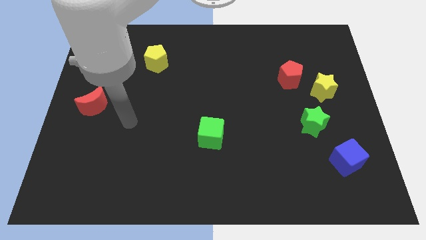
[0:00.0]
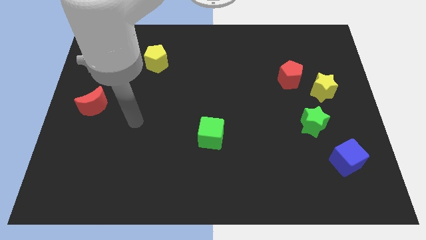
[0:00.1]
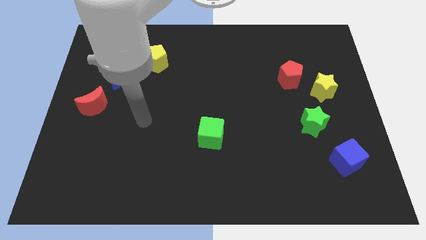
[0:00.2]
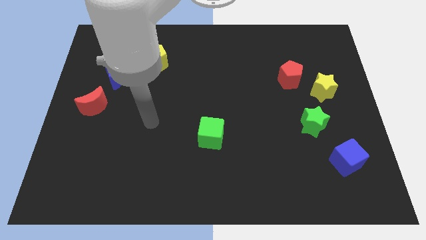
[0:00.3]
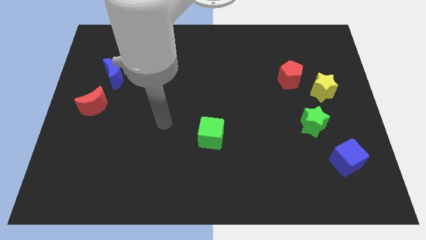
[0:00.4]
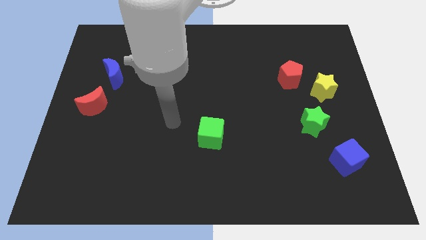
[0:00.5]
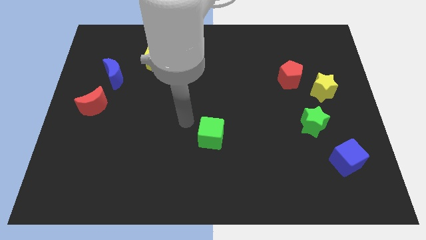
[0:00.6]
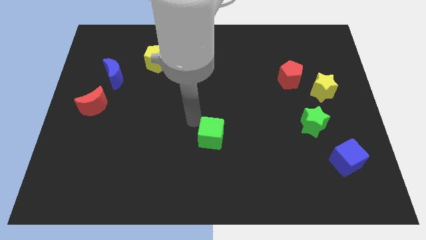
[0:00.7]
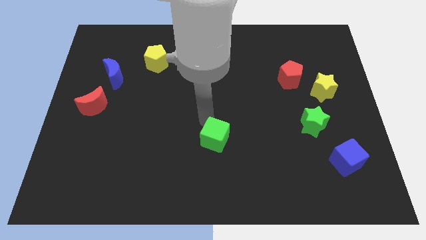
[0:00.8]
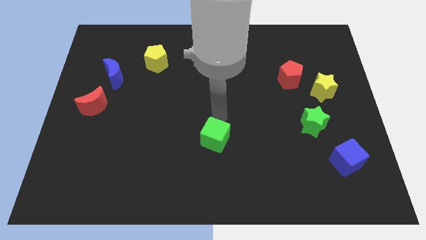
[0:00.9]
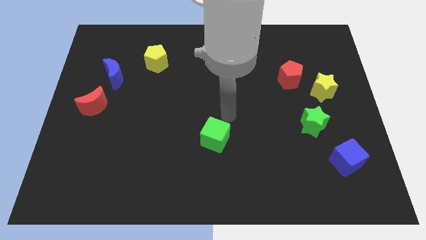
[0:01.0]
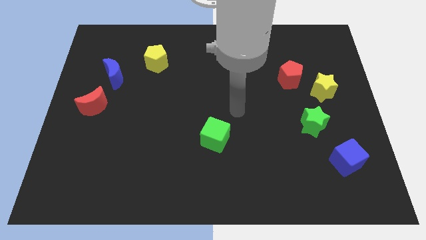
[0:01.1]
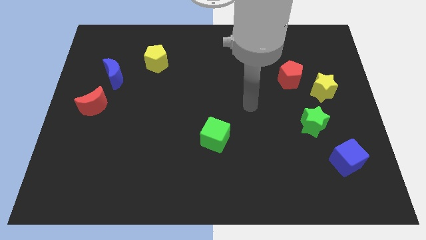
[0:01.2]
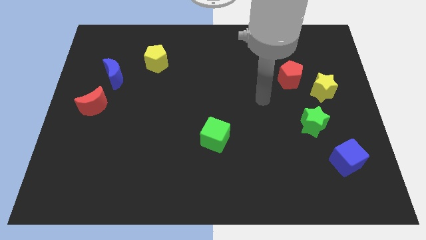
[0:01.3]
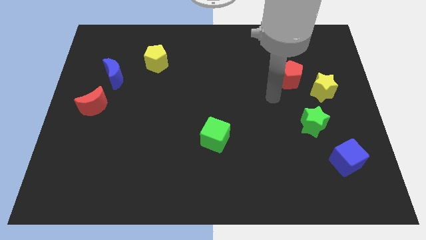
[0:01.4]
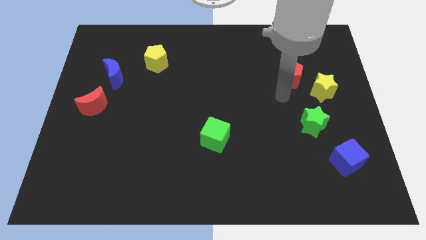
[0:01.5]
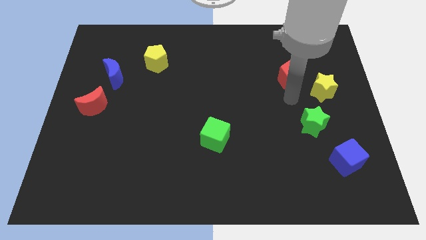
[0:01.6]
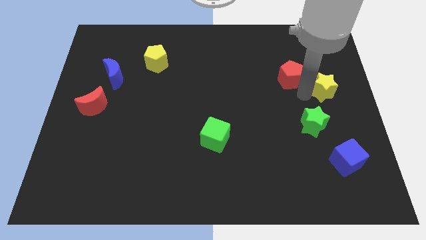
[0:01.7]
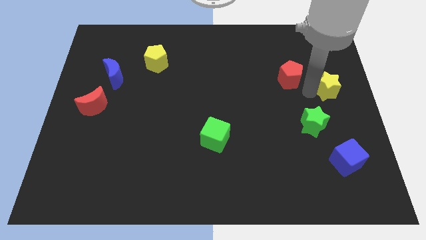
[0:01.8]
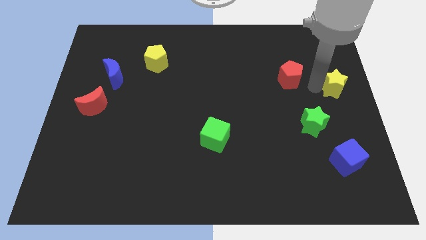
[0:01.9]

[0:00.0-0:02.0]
separate the red pentagon from the yellow star

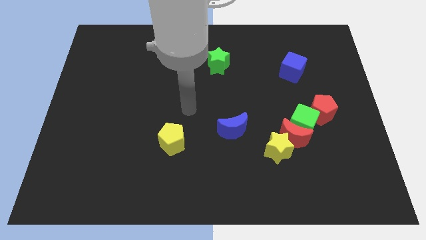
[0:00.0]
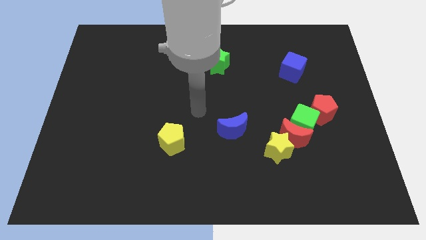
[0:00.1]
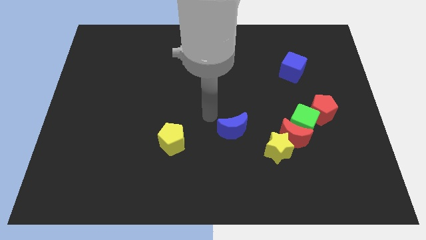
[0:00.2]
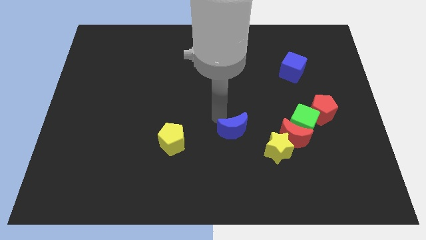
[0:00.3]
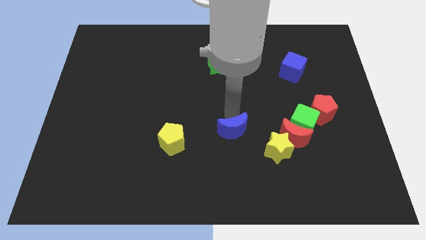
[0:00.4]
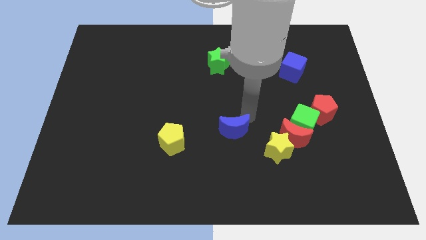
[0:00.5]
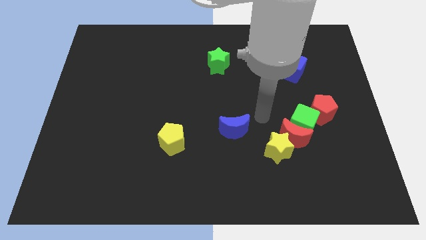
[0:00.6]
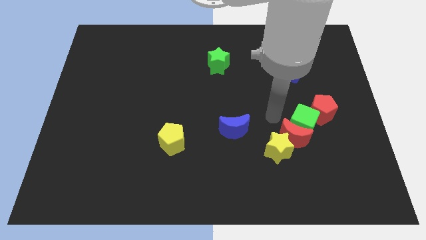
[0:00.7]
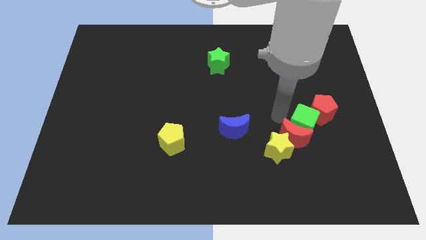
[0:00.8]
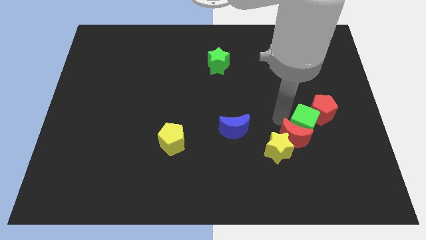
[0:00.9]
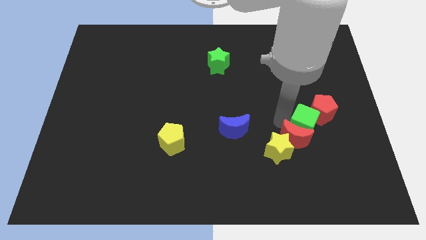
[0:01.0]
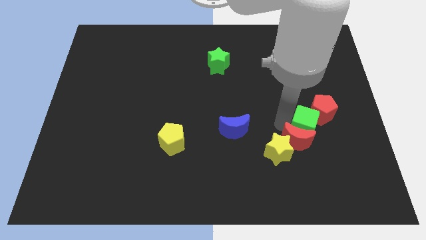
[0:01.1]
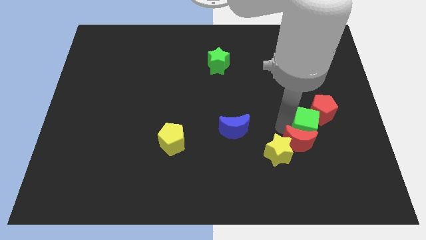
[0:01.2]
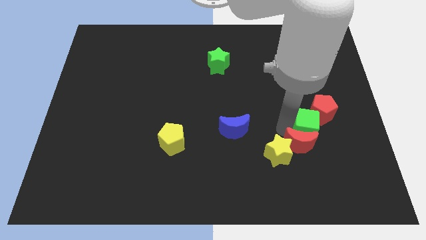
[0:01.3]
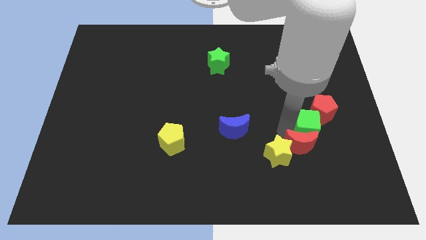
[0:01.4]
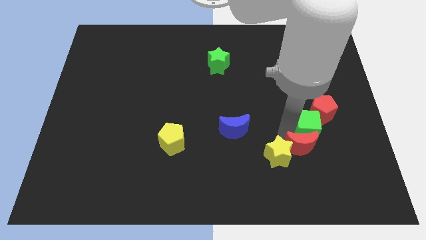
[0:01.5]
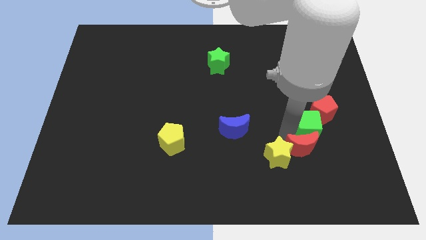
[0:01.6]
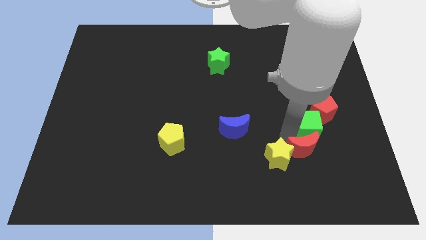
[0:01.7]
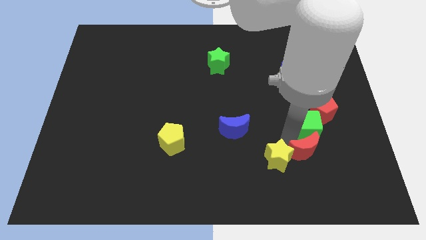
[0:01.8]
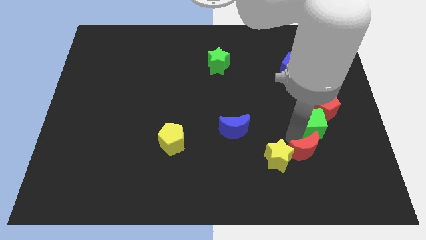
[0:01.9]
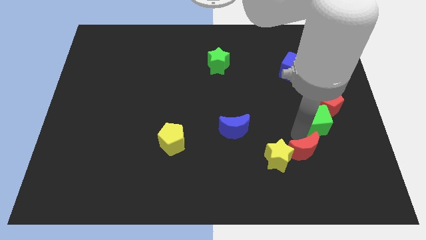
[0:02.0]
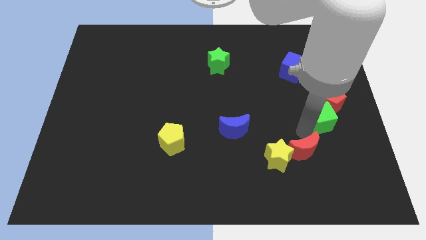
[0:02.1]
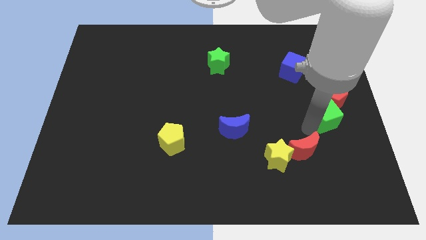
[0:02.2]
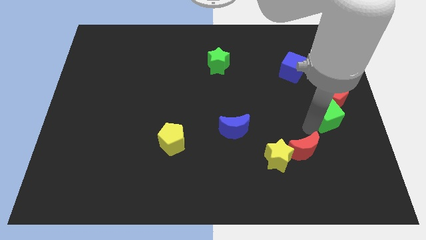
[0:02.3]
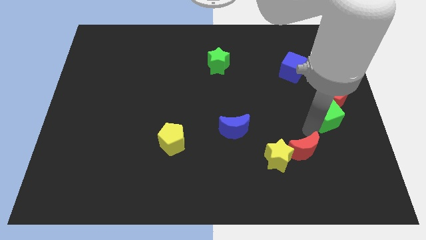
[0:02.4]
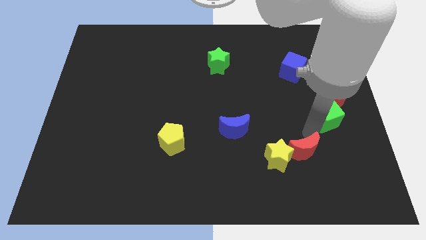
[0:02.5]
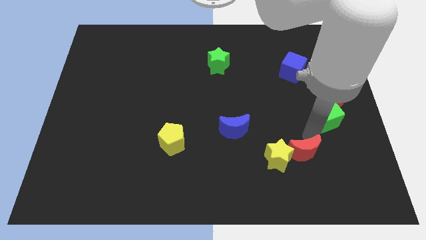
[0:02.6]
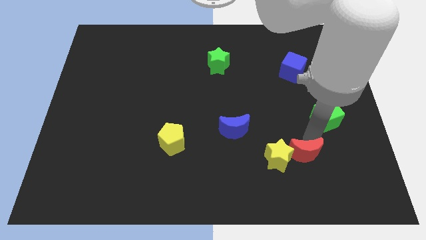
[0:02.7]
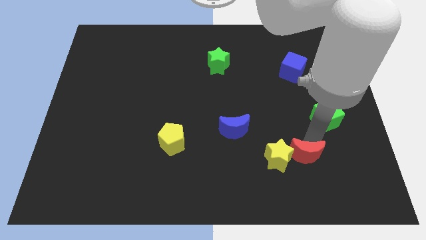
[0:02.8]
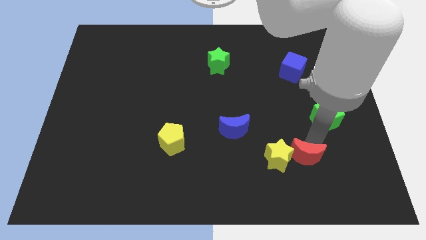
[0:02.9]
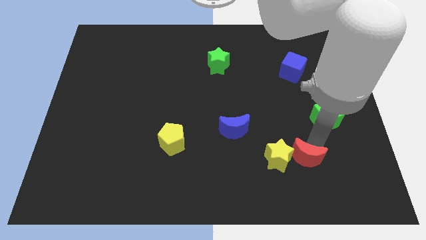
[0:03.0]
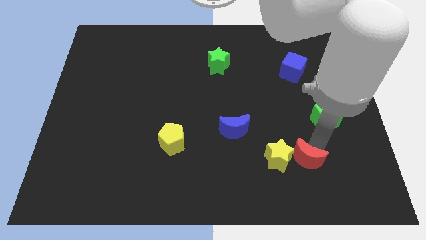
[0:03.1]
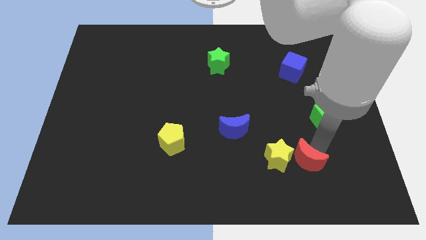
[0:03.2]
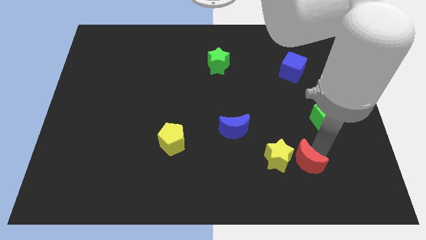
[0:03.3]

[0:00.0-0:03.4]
move the red moon away from the group of blocks

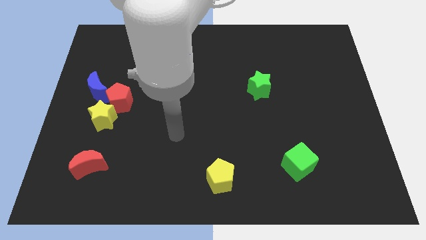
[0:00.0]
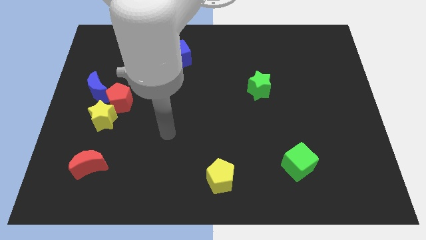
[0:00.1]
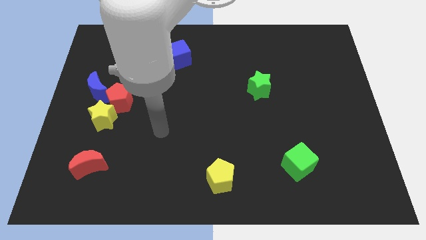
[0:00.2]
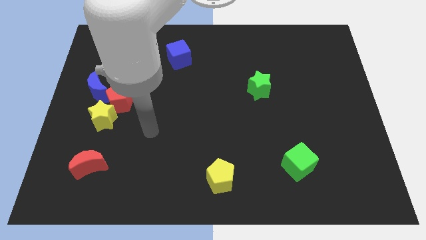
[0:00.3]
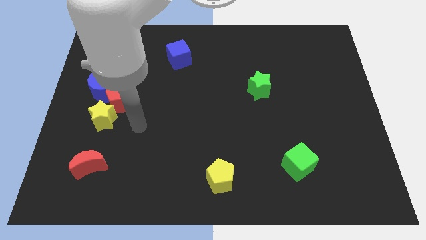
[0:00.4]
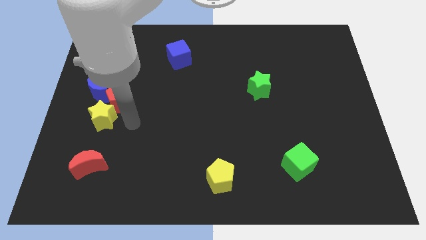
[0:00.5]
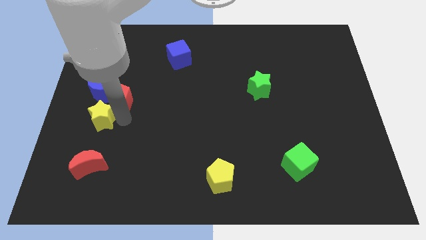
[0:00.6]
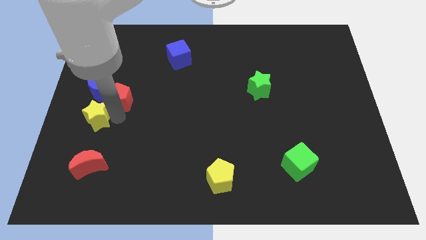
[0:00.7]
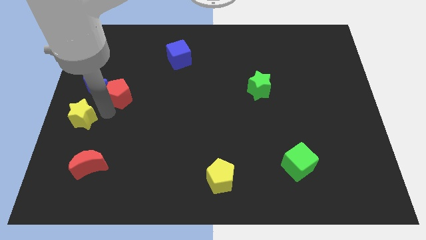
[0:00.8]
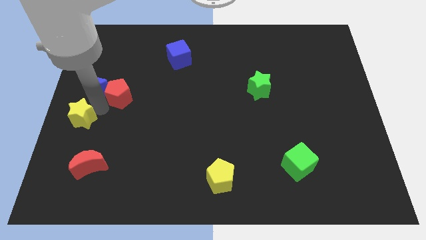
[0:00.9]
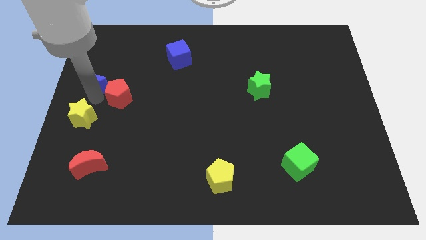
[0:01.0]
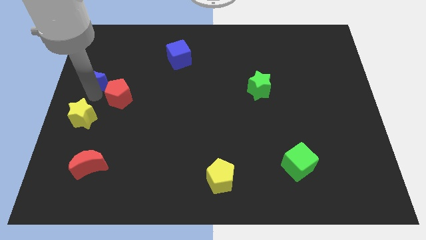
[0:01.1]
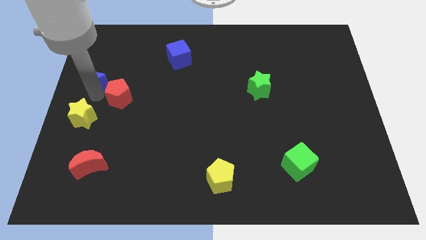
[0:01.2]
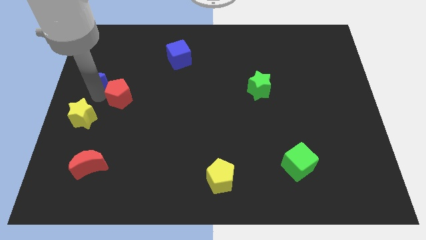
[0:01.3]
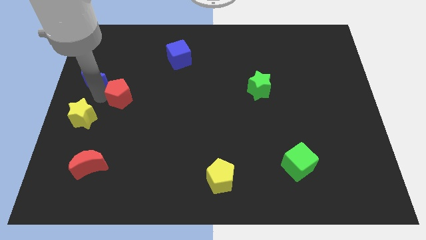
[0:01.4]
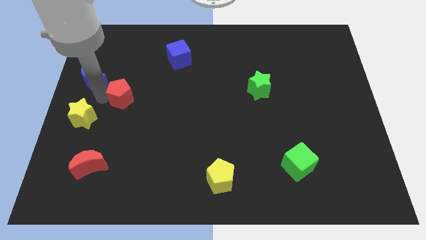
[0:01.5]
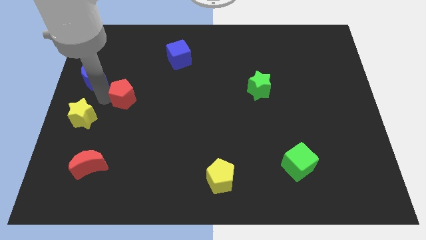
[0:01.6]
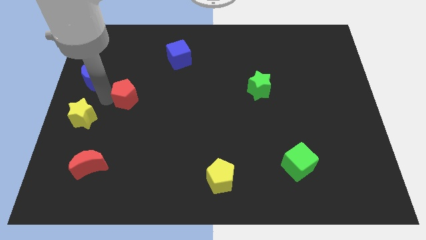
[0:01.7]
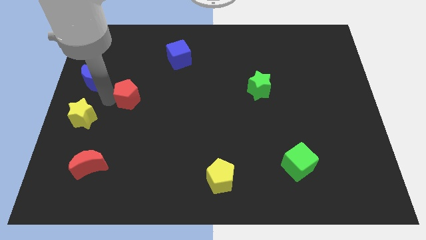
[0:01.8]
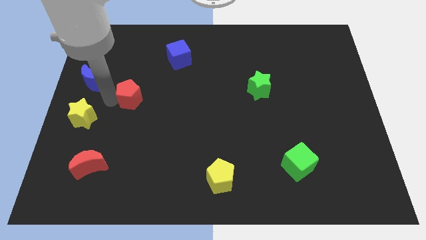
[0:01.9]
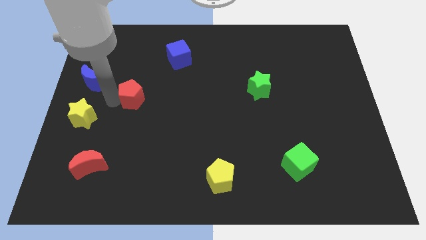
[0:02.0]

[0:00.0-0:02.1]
separate the red pentagon from the yellow star and blue moon

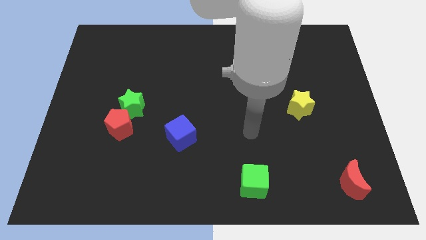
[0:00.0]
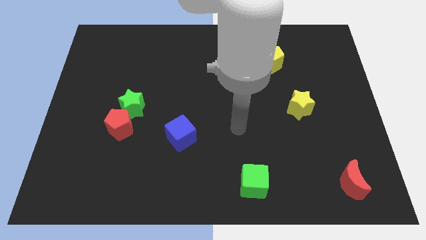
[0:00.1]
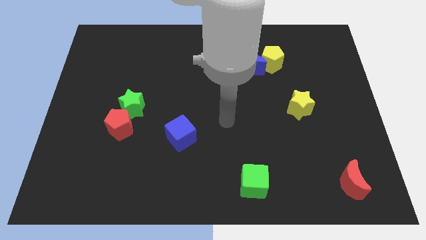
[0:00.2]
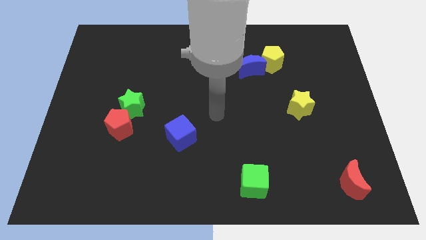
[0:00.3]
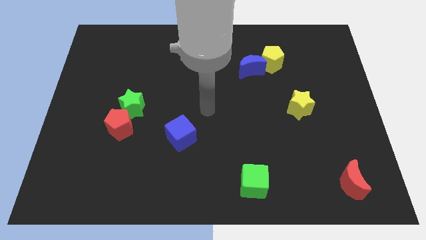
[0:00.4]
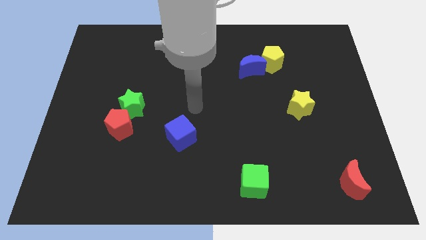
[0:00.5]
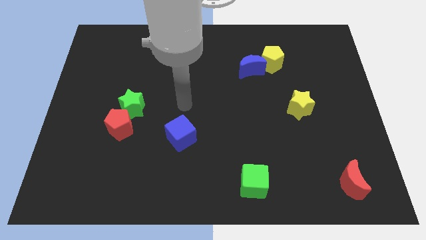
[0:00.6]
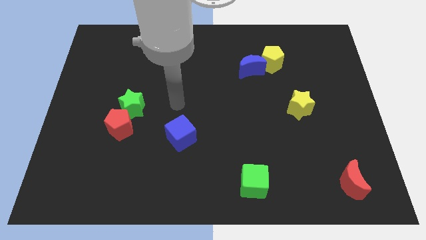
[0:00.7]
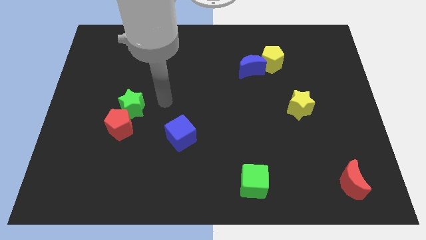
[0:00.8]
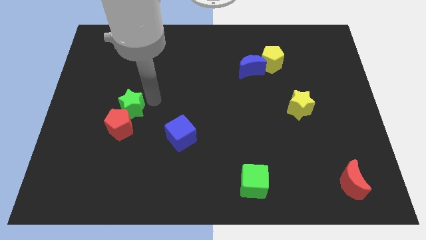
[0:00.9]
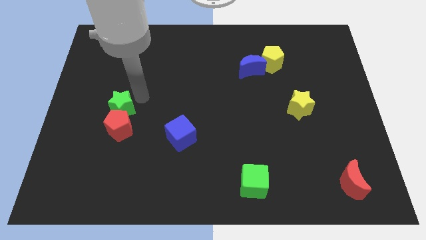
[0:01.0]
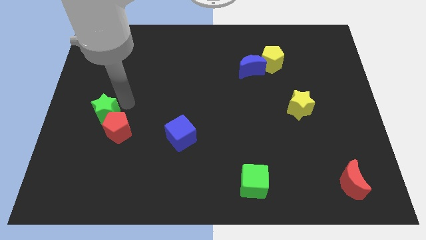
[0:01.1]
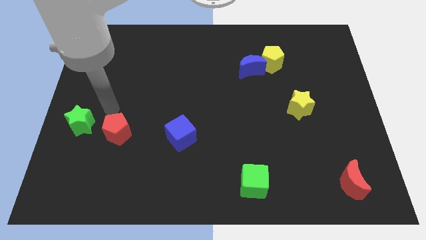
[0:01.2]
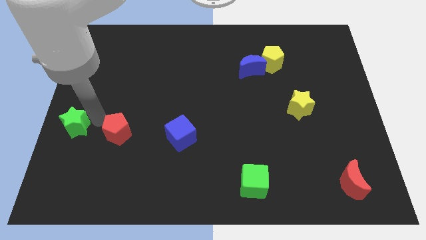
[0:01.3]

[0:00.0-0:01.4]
separate the red pentagon from the green star

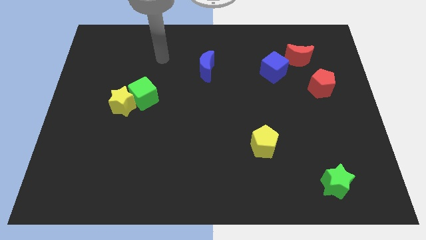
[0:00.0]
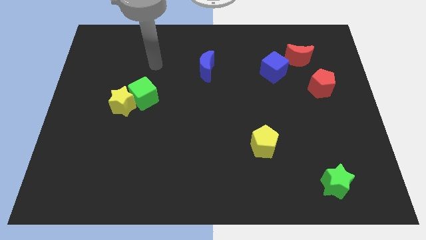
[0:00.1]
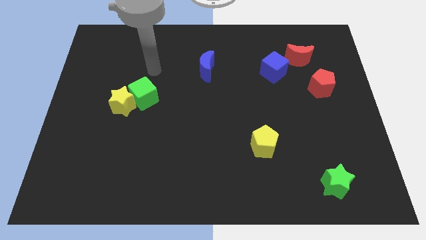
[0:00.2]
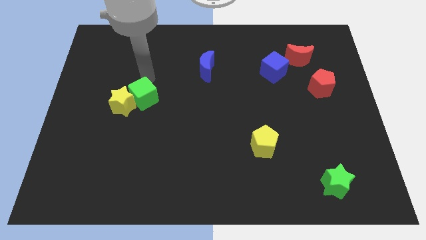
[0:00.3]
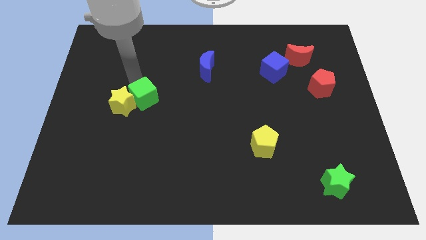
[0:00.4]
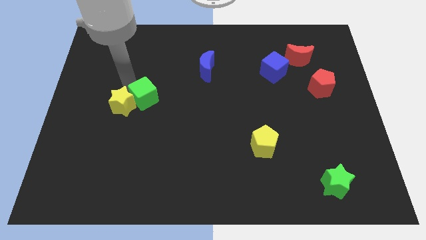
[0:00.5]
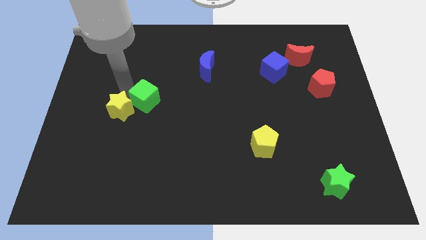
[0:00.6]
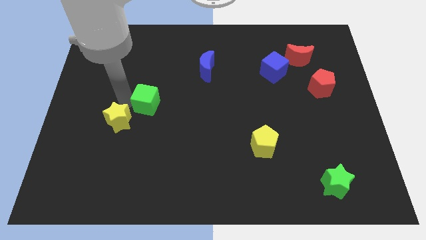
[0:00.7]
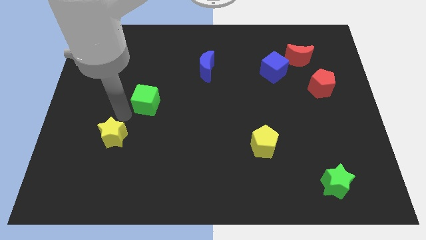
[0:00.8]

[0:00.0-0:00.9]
move the green cube away from the yellow star
